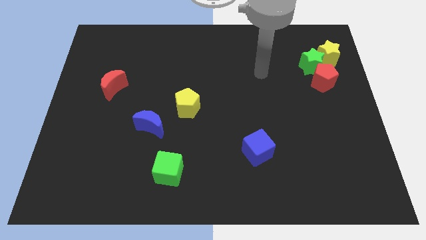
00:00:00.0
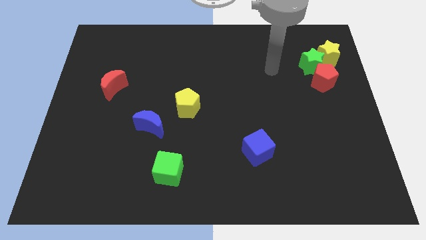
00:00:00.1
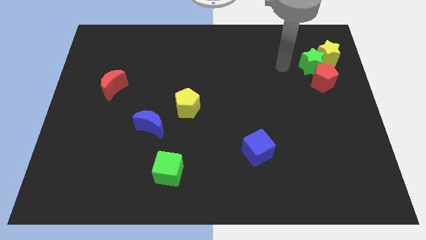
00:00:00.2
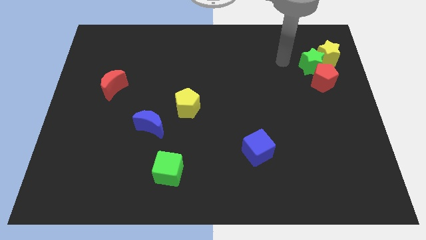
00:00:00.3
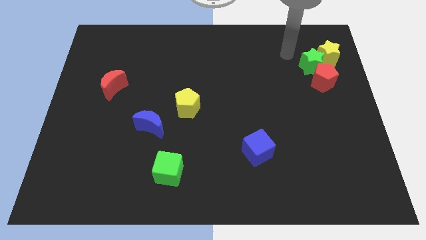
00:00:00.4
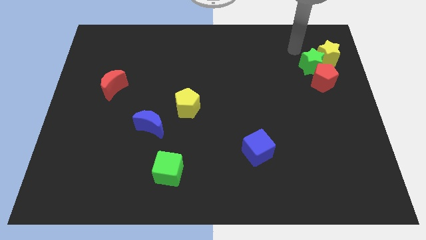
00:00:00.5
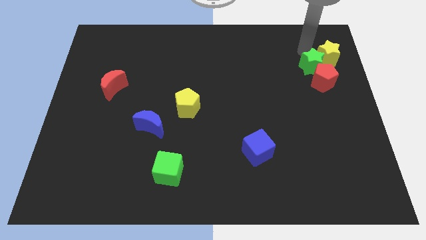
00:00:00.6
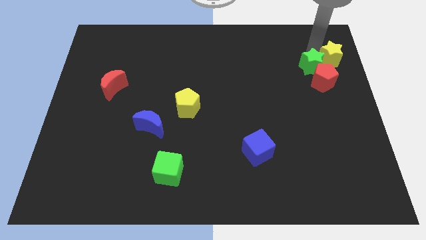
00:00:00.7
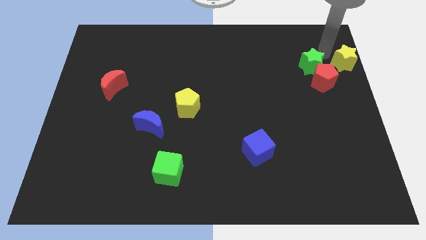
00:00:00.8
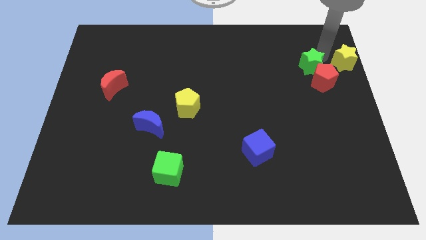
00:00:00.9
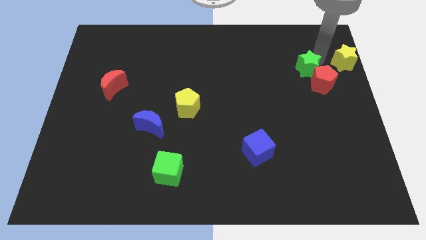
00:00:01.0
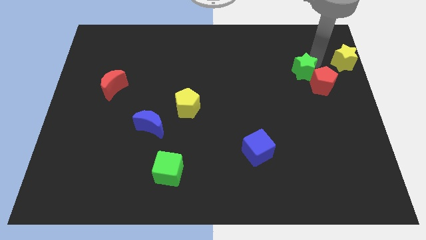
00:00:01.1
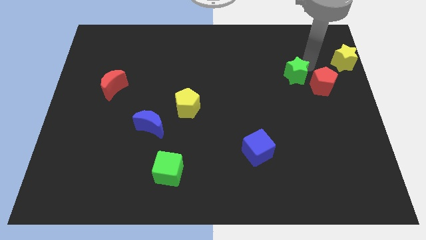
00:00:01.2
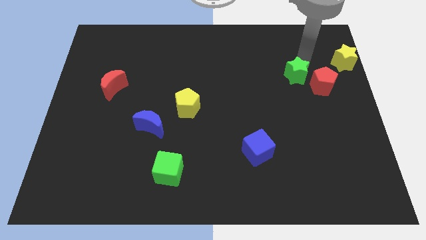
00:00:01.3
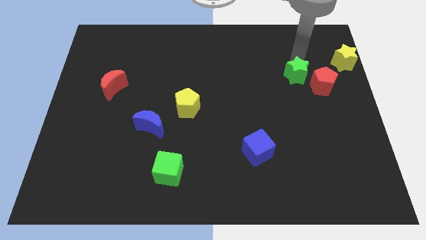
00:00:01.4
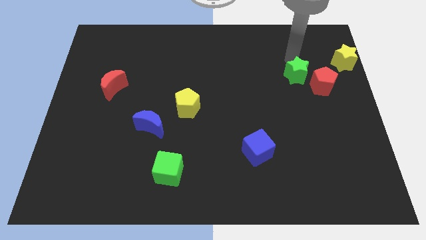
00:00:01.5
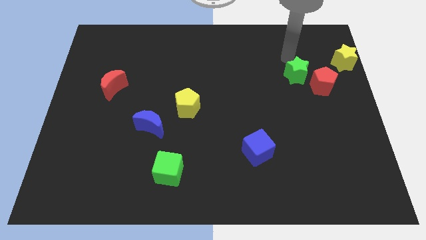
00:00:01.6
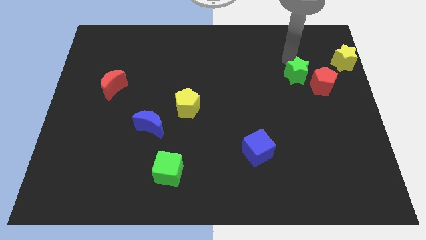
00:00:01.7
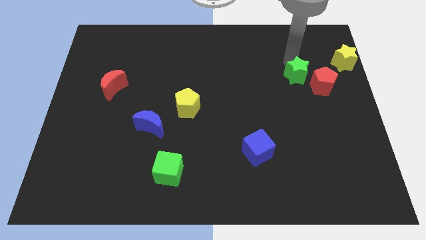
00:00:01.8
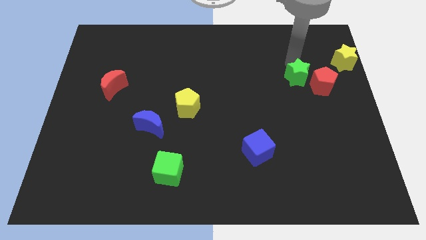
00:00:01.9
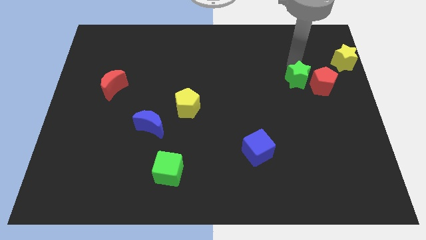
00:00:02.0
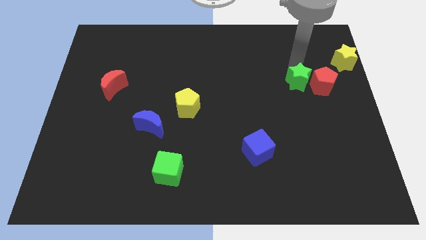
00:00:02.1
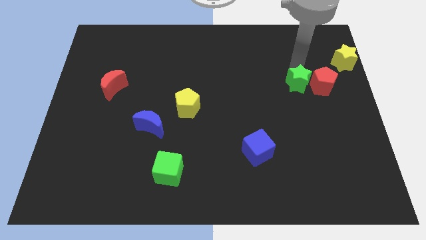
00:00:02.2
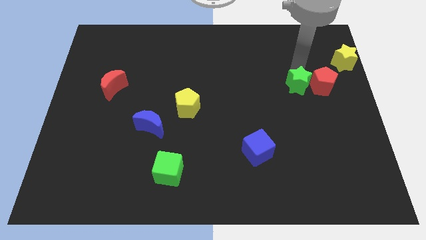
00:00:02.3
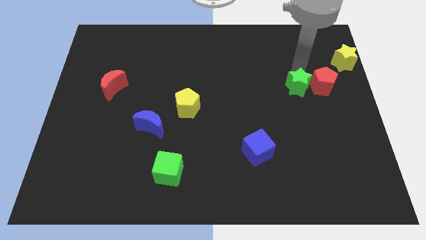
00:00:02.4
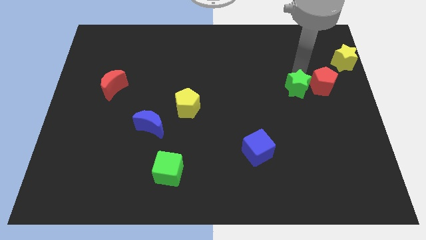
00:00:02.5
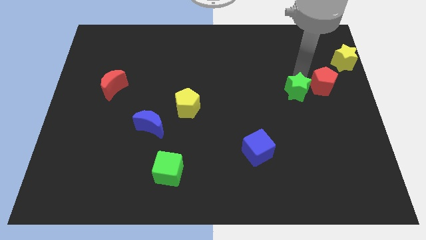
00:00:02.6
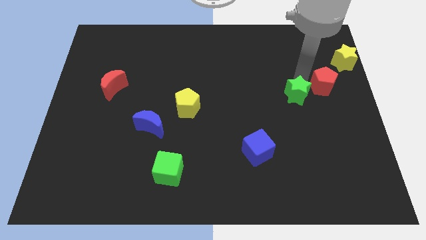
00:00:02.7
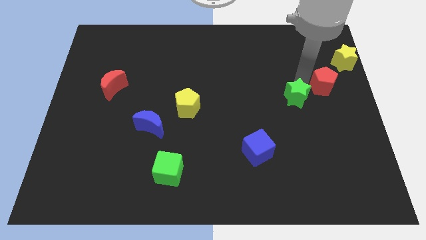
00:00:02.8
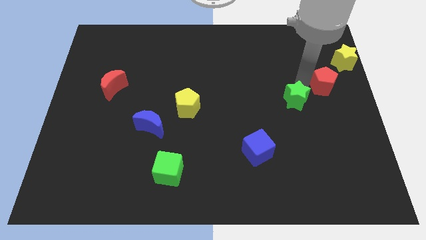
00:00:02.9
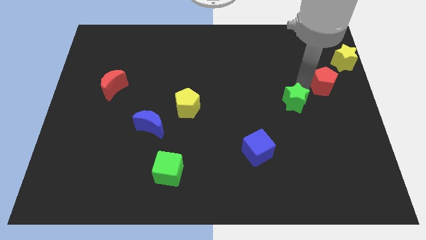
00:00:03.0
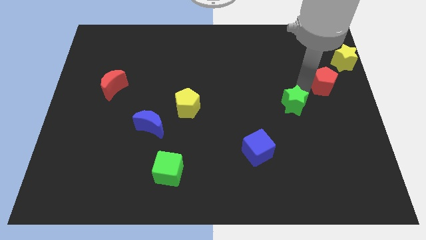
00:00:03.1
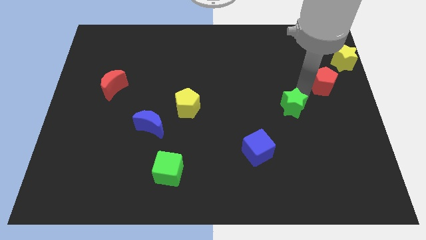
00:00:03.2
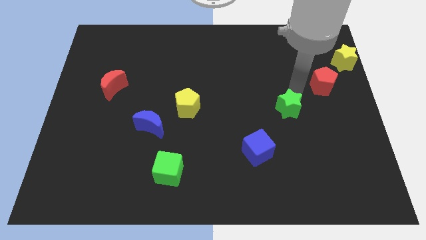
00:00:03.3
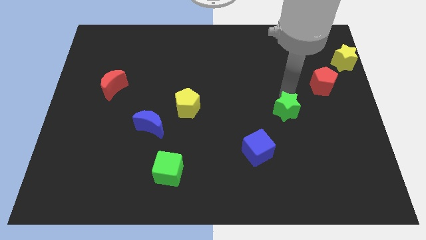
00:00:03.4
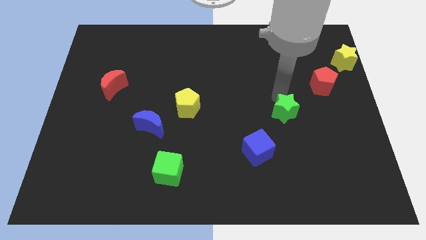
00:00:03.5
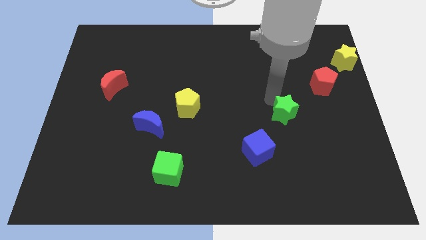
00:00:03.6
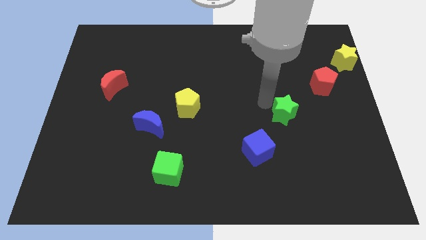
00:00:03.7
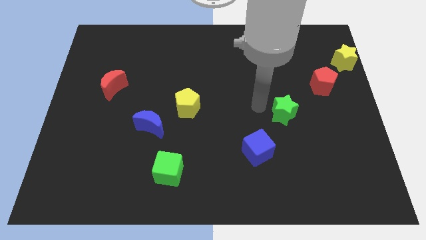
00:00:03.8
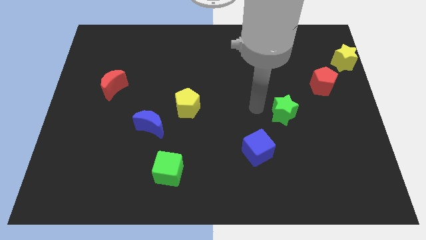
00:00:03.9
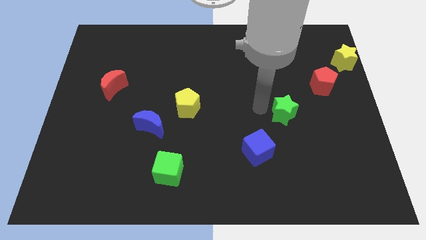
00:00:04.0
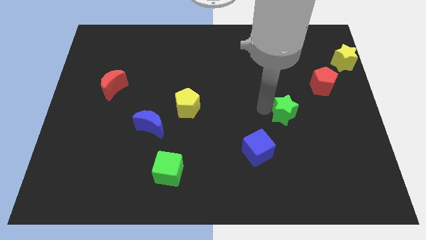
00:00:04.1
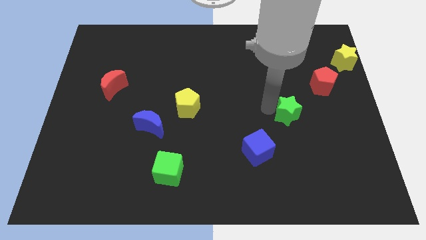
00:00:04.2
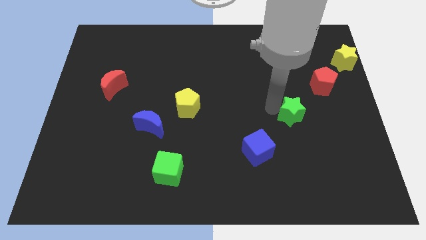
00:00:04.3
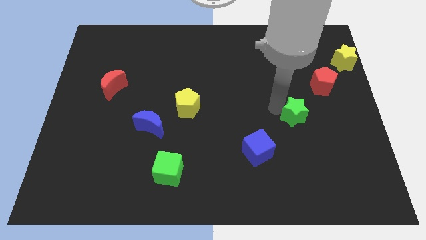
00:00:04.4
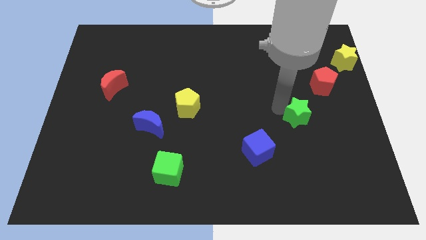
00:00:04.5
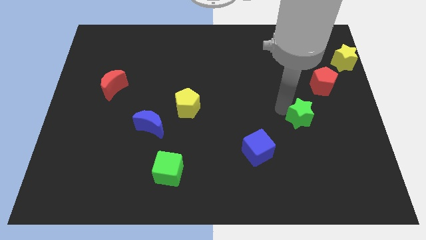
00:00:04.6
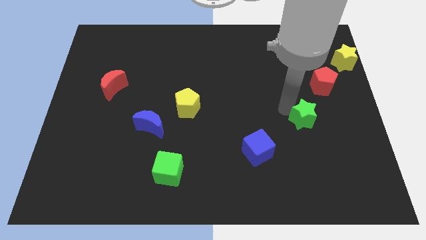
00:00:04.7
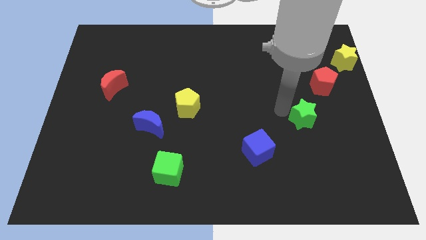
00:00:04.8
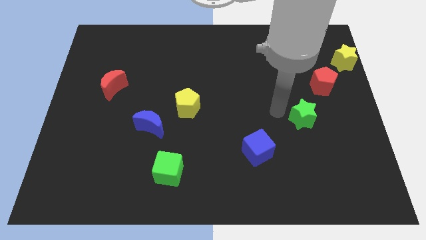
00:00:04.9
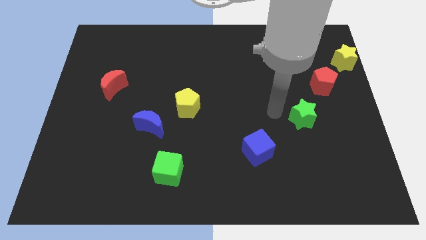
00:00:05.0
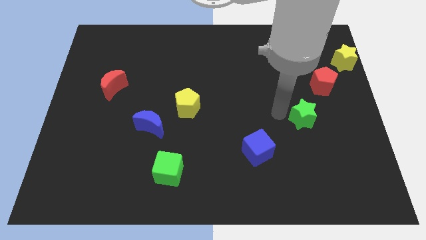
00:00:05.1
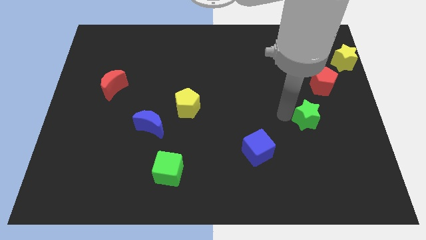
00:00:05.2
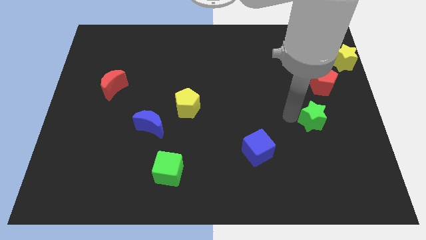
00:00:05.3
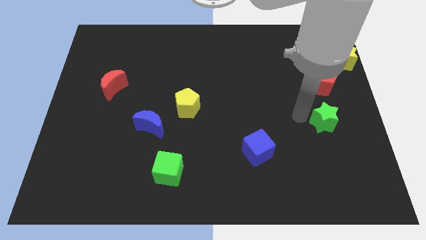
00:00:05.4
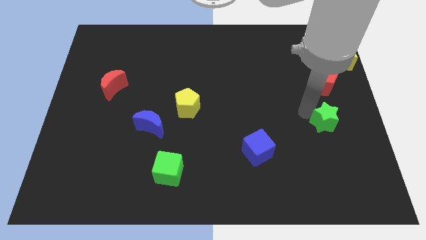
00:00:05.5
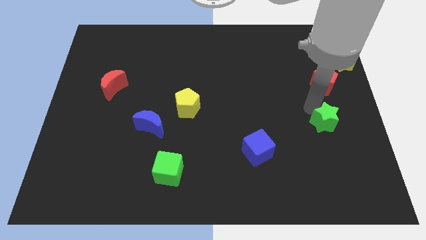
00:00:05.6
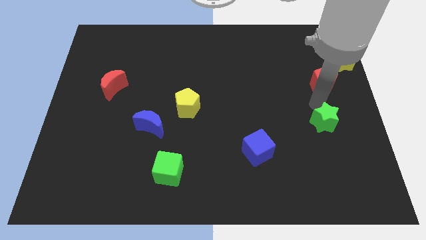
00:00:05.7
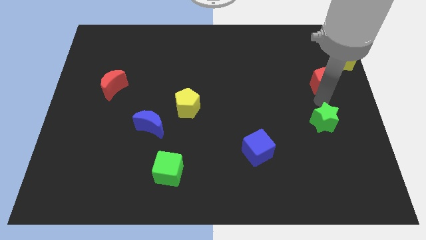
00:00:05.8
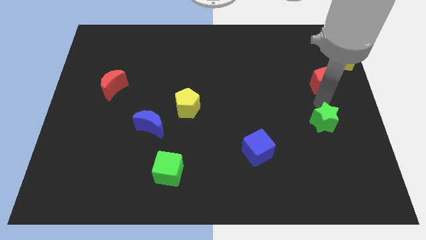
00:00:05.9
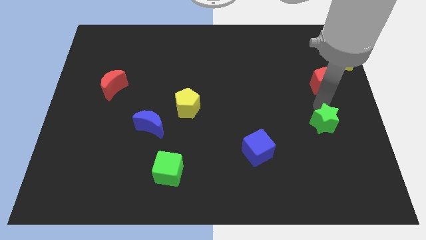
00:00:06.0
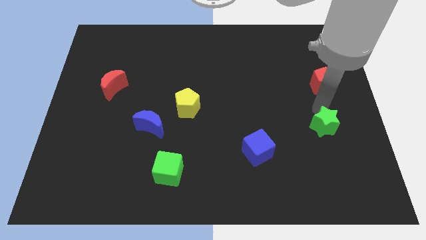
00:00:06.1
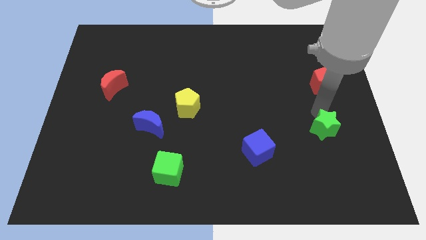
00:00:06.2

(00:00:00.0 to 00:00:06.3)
slide the green star down

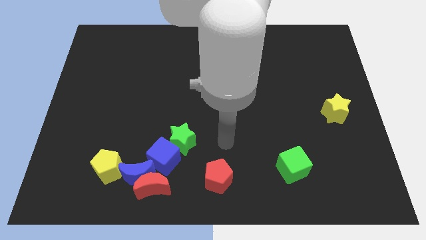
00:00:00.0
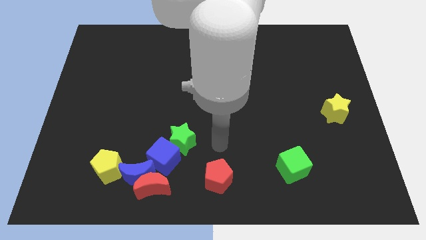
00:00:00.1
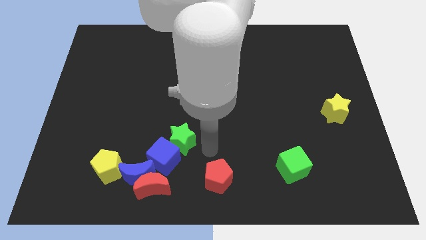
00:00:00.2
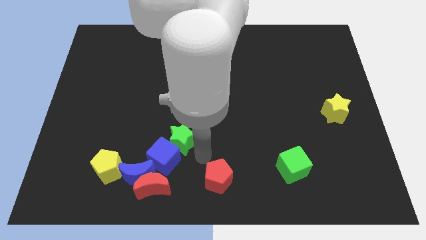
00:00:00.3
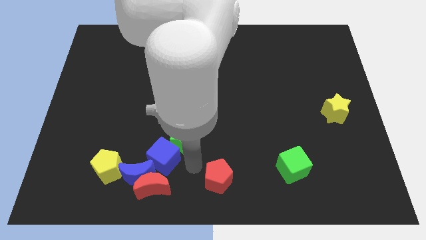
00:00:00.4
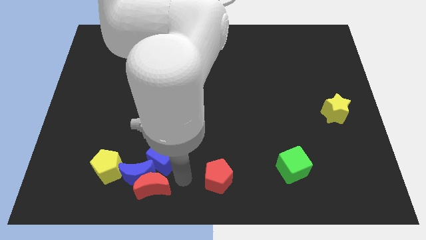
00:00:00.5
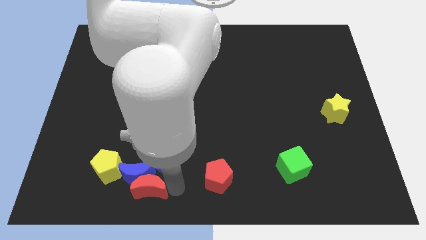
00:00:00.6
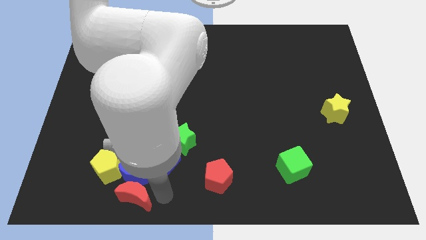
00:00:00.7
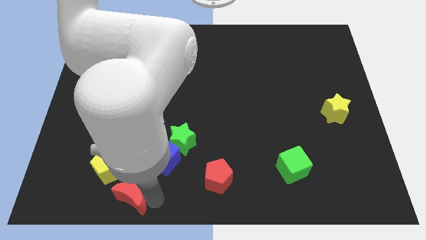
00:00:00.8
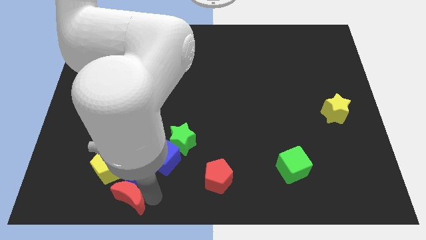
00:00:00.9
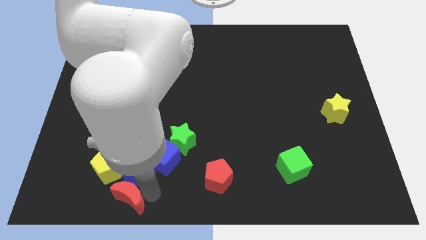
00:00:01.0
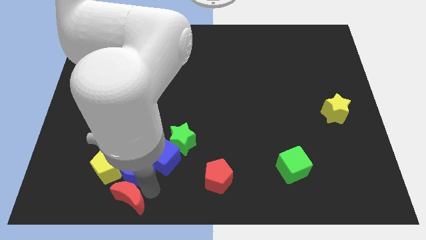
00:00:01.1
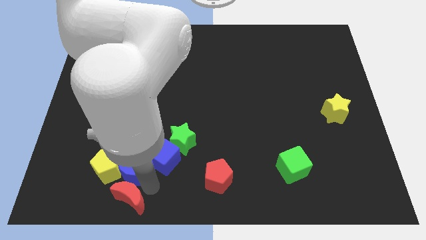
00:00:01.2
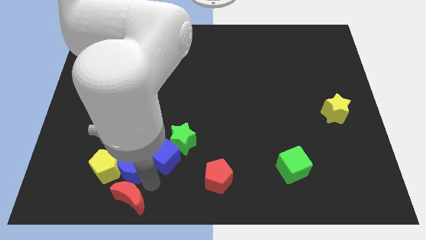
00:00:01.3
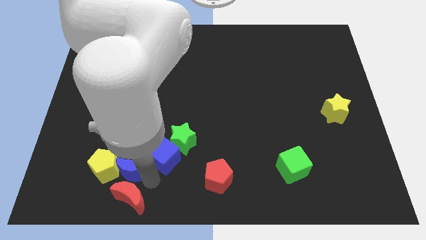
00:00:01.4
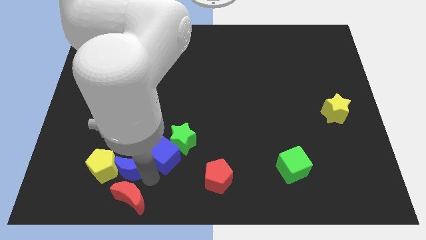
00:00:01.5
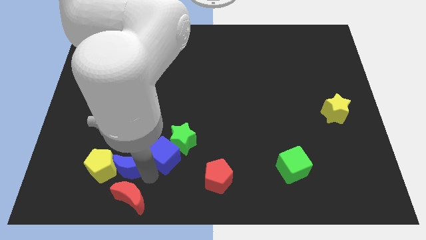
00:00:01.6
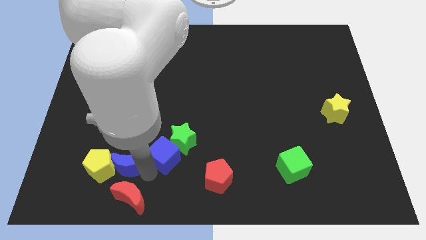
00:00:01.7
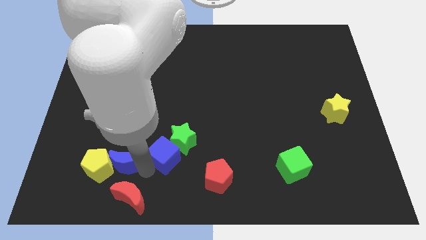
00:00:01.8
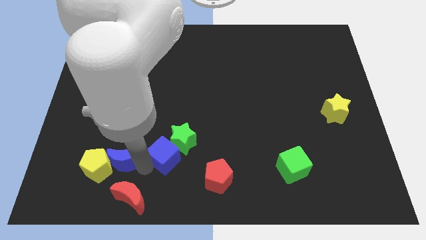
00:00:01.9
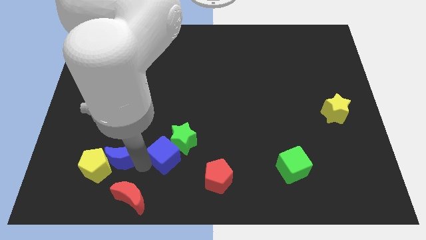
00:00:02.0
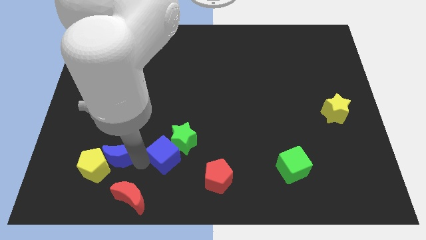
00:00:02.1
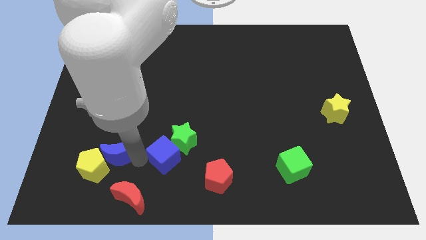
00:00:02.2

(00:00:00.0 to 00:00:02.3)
slide the blue moon upwards and then left a little

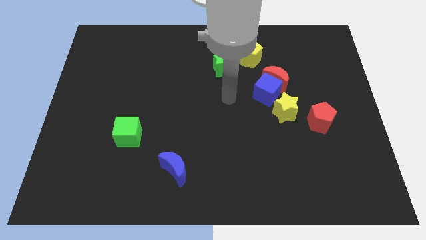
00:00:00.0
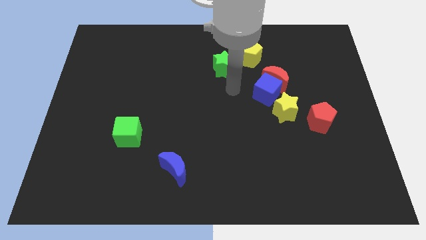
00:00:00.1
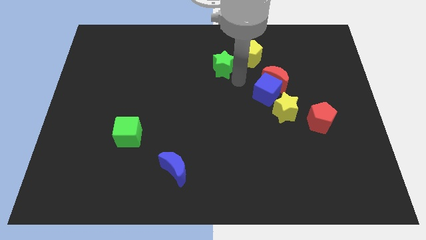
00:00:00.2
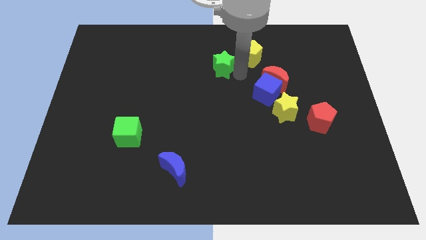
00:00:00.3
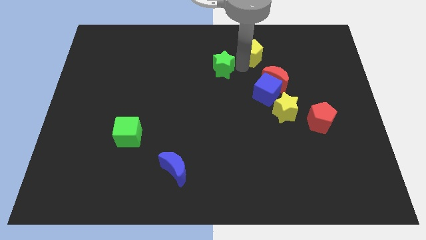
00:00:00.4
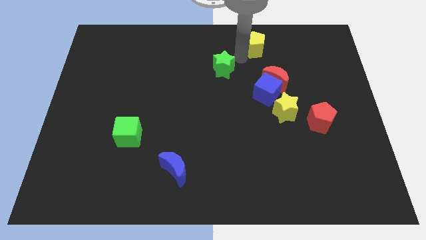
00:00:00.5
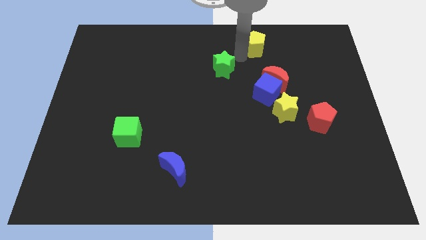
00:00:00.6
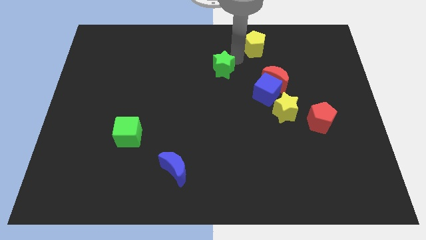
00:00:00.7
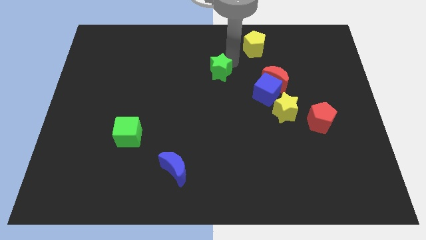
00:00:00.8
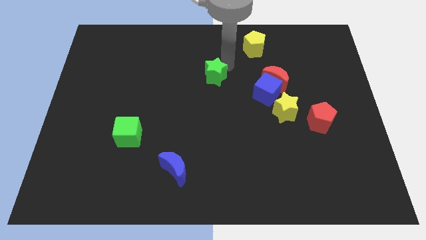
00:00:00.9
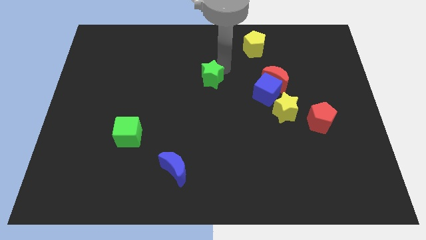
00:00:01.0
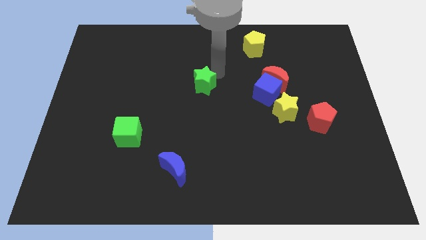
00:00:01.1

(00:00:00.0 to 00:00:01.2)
slightly push the green star down and left
